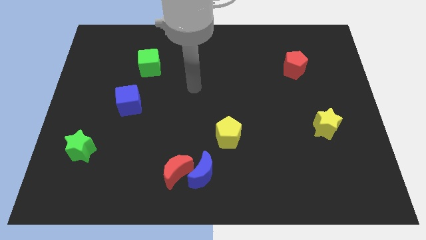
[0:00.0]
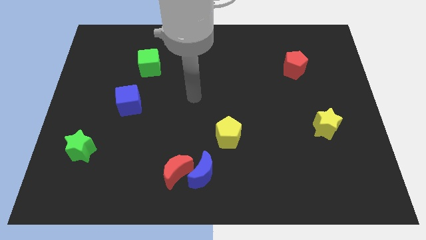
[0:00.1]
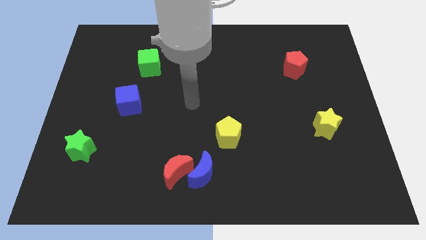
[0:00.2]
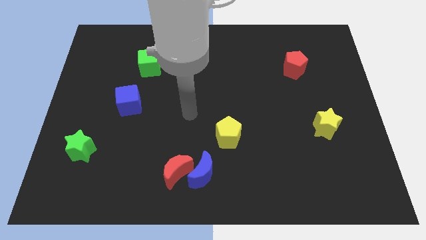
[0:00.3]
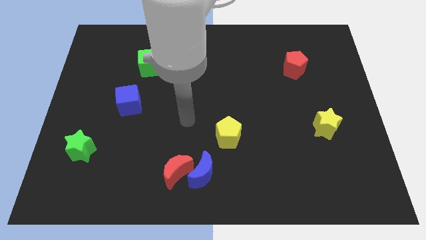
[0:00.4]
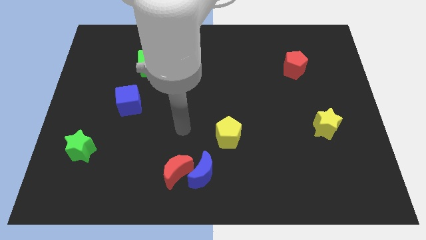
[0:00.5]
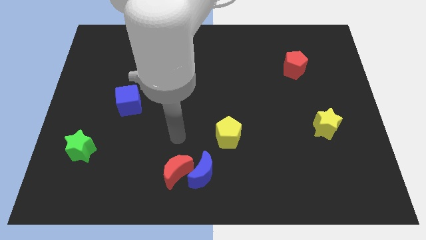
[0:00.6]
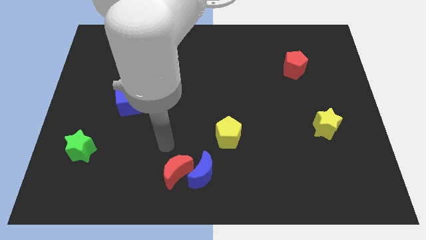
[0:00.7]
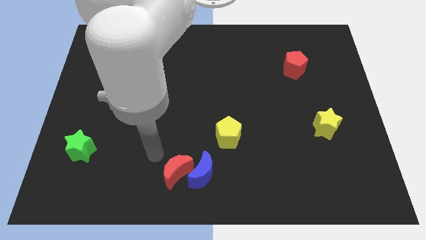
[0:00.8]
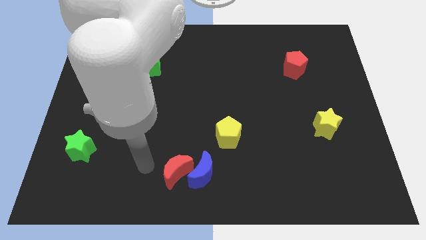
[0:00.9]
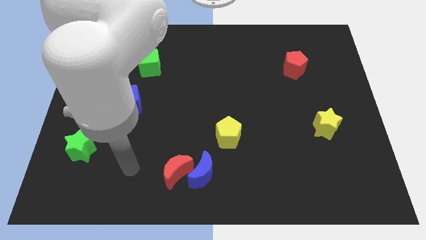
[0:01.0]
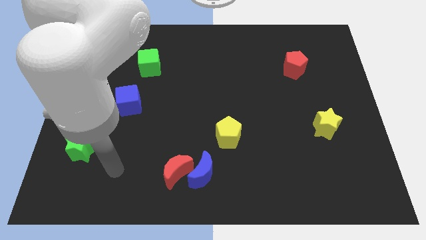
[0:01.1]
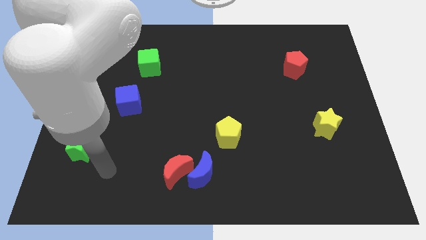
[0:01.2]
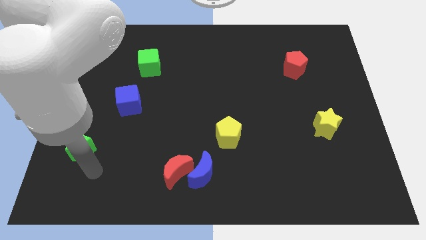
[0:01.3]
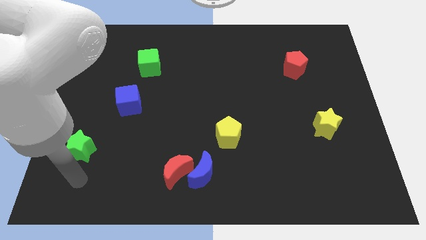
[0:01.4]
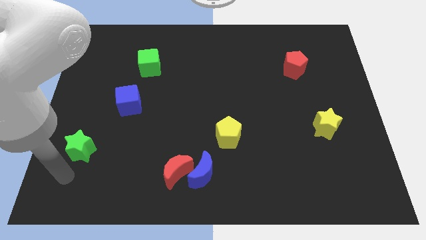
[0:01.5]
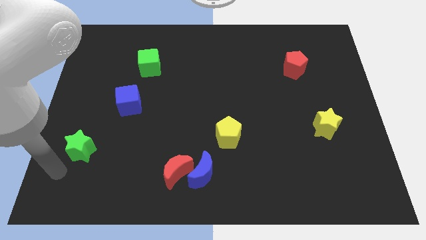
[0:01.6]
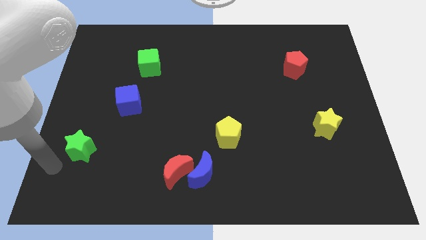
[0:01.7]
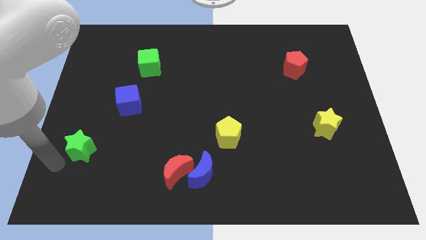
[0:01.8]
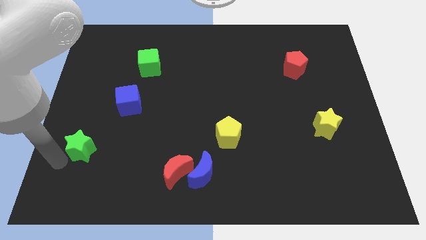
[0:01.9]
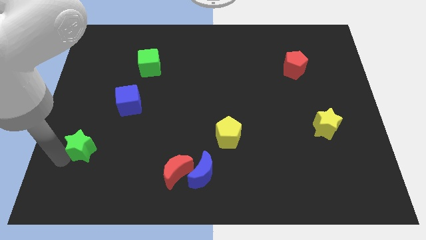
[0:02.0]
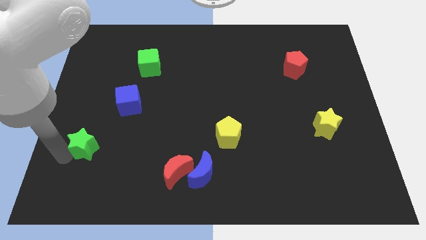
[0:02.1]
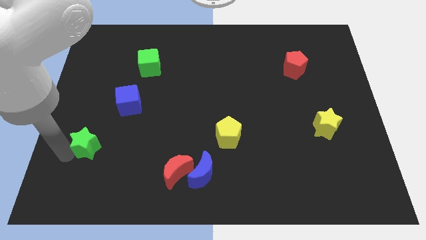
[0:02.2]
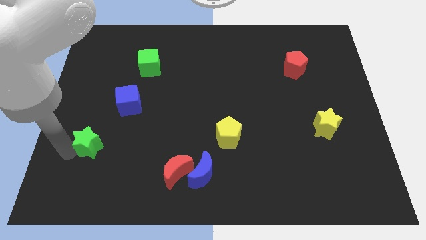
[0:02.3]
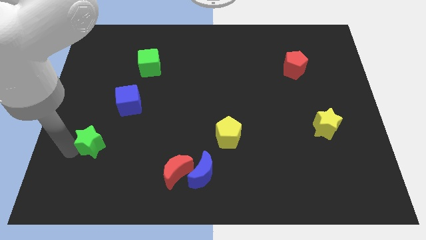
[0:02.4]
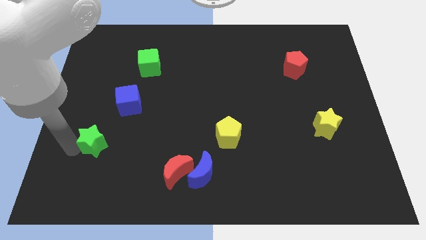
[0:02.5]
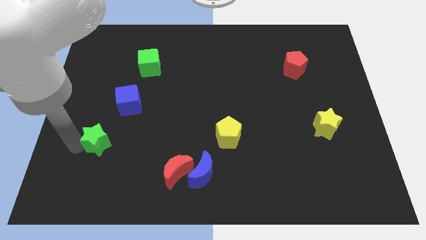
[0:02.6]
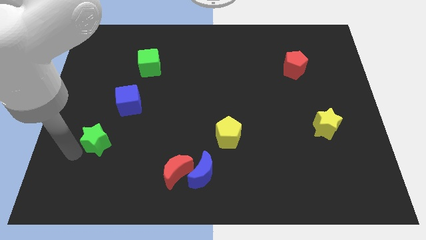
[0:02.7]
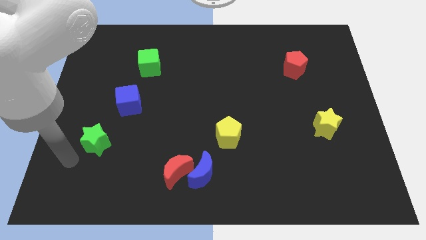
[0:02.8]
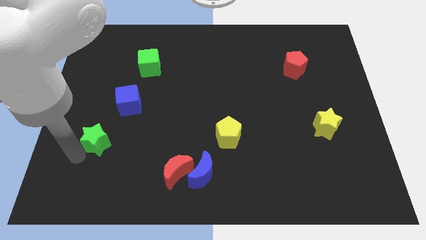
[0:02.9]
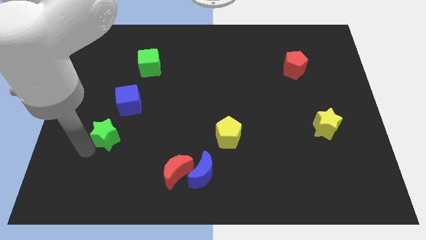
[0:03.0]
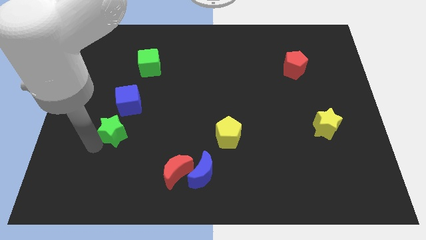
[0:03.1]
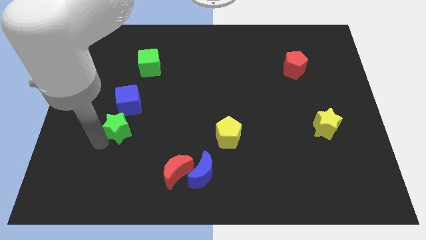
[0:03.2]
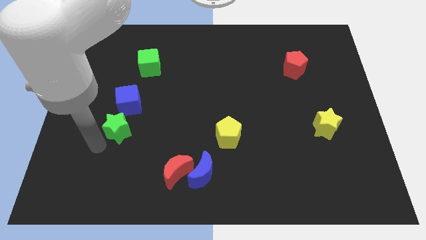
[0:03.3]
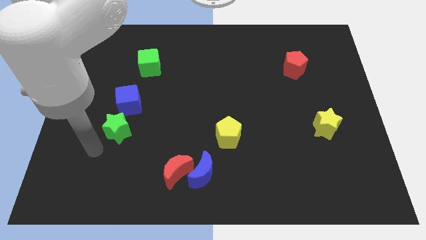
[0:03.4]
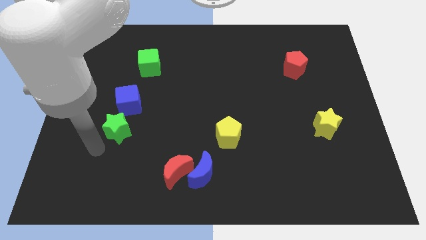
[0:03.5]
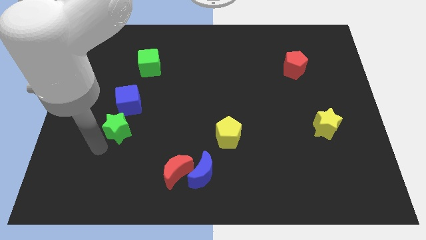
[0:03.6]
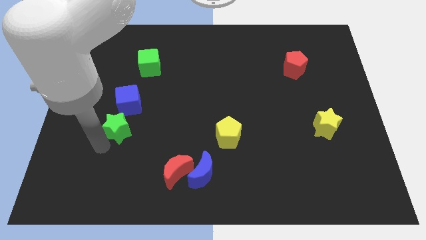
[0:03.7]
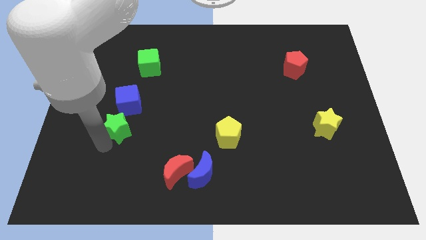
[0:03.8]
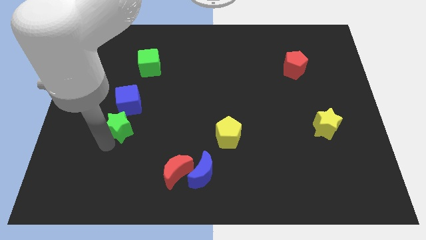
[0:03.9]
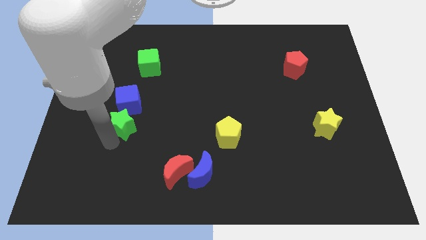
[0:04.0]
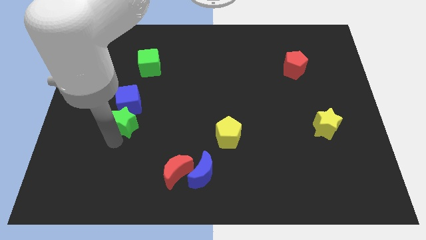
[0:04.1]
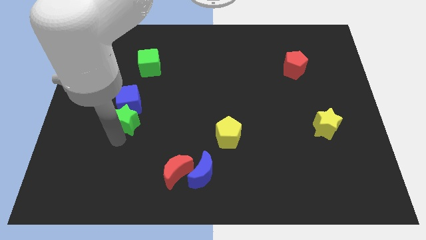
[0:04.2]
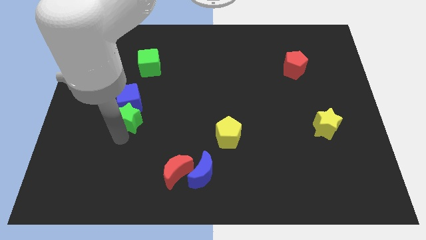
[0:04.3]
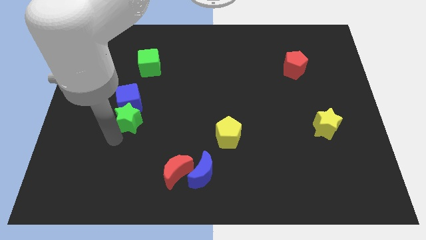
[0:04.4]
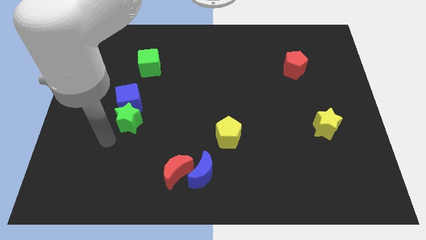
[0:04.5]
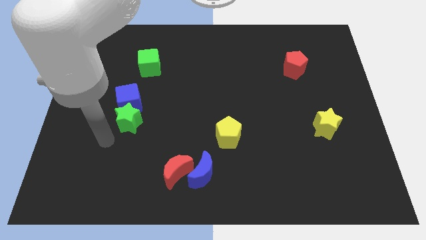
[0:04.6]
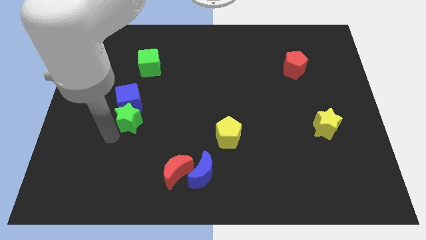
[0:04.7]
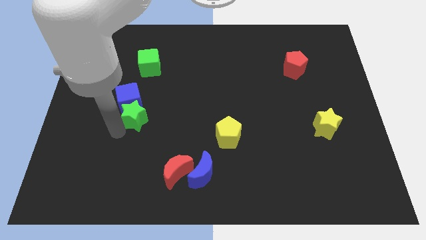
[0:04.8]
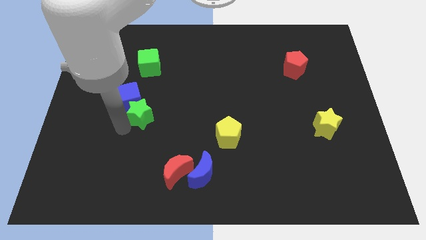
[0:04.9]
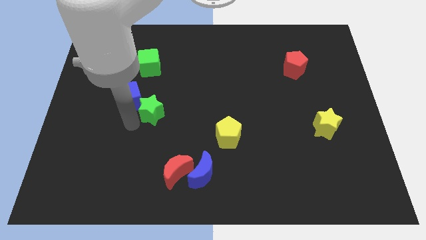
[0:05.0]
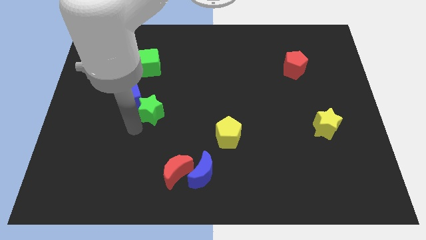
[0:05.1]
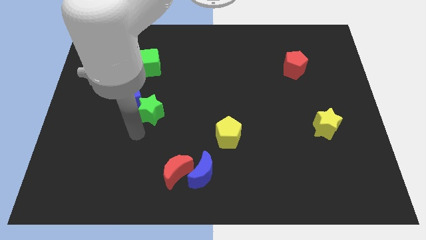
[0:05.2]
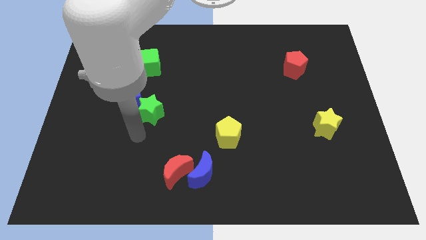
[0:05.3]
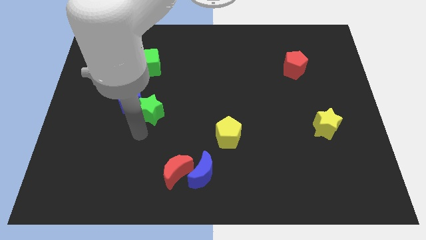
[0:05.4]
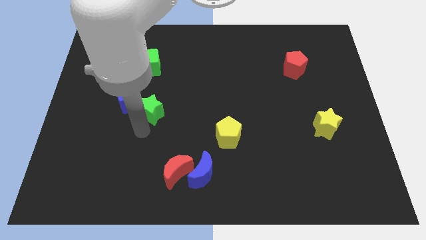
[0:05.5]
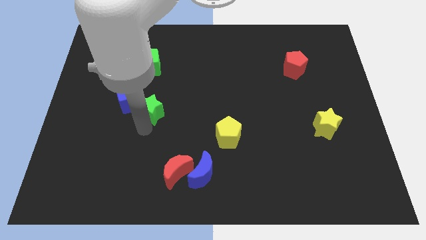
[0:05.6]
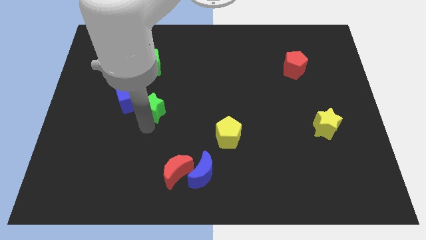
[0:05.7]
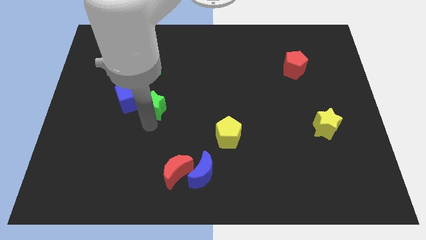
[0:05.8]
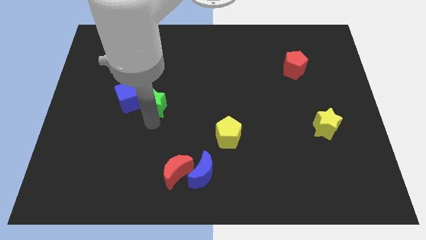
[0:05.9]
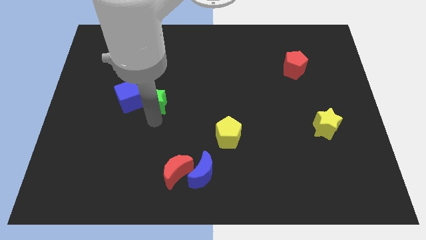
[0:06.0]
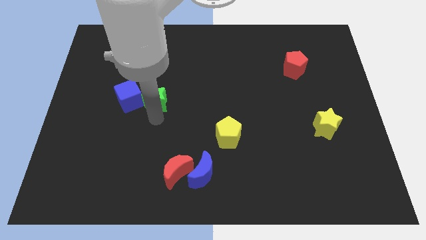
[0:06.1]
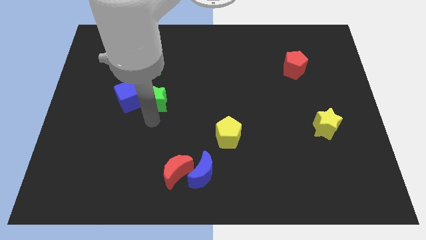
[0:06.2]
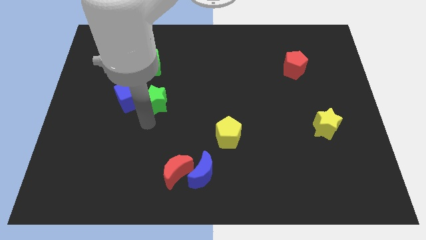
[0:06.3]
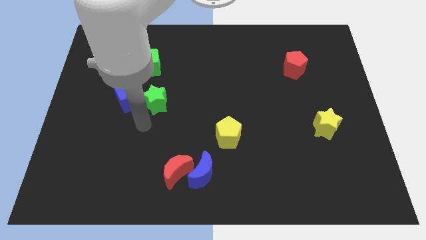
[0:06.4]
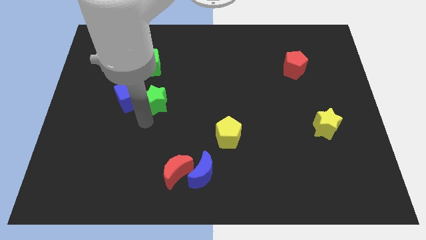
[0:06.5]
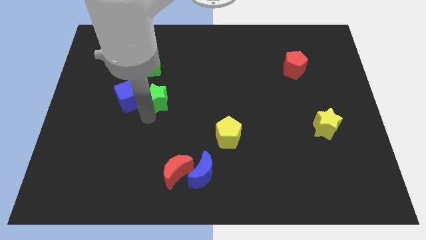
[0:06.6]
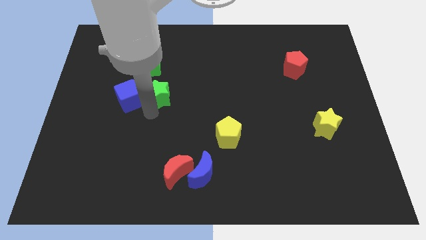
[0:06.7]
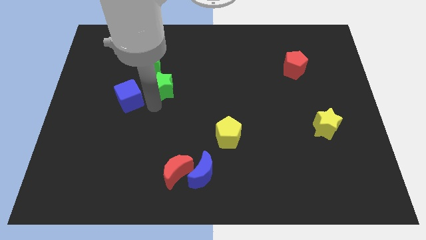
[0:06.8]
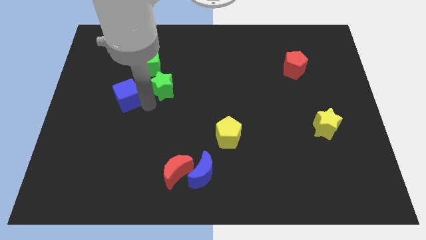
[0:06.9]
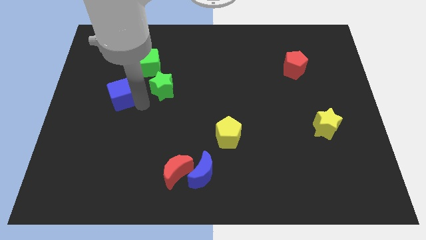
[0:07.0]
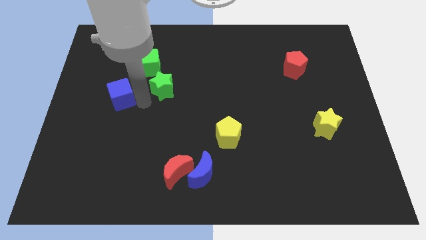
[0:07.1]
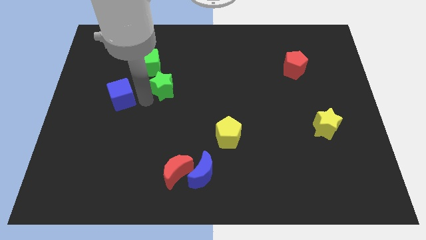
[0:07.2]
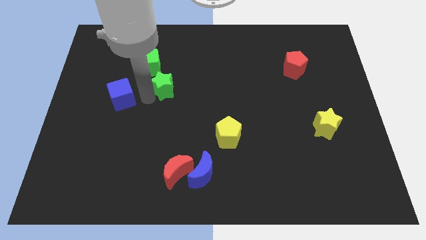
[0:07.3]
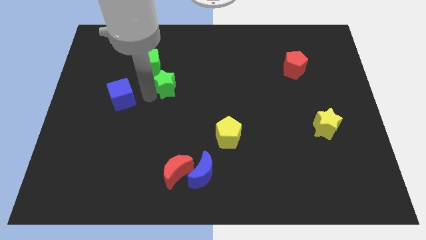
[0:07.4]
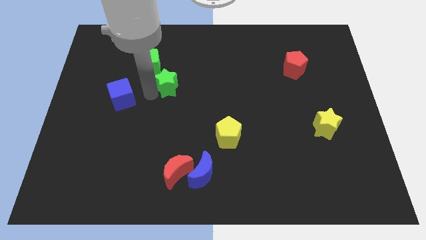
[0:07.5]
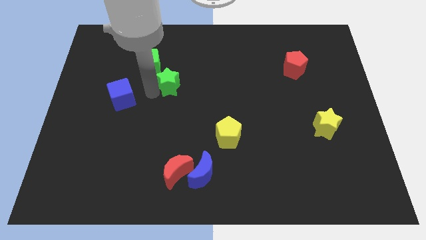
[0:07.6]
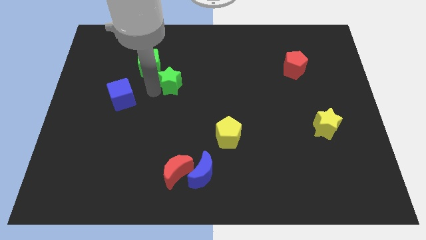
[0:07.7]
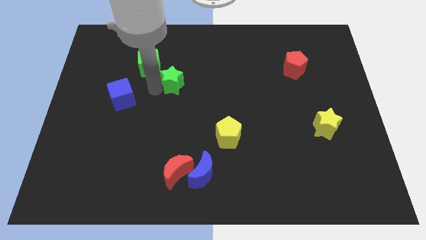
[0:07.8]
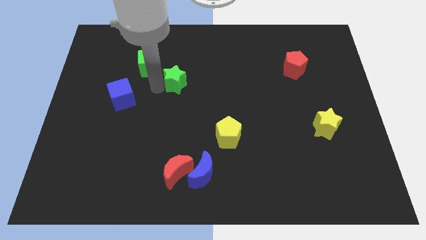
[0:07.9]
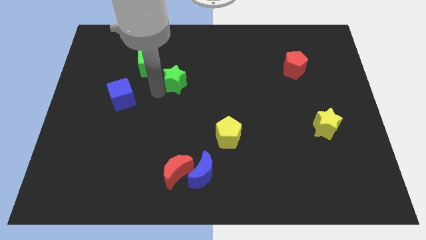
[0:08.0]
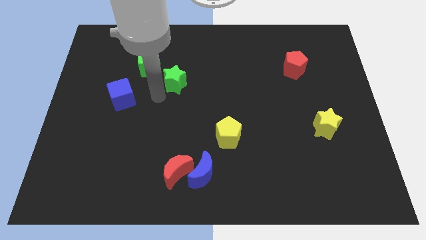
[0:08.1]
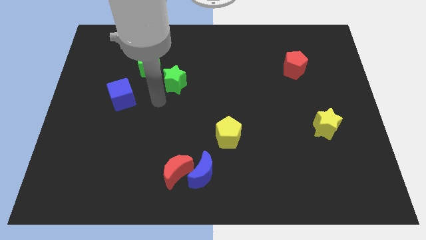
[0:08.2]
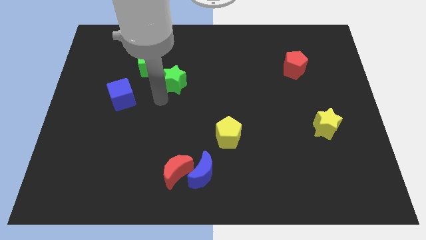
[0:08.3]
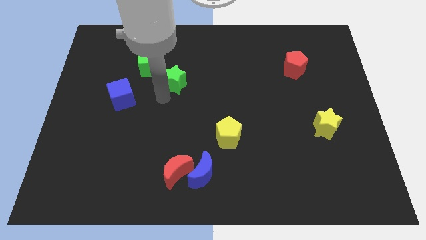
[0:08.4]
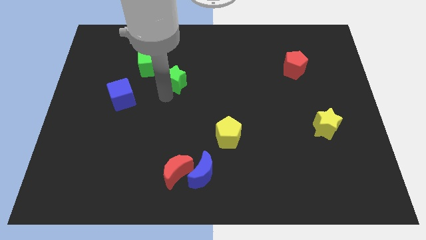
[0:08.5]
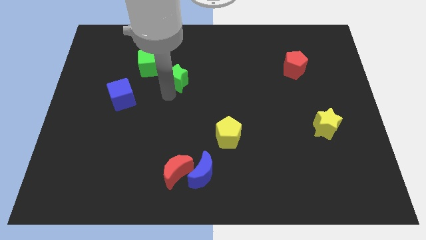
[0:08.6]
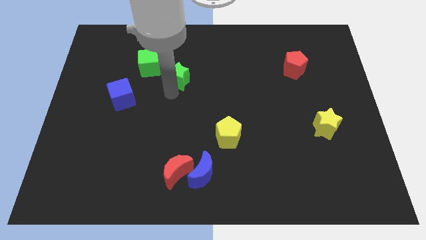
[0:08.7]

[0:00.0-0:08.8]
slide the green star just right of the green cube

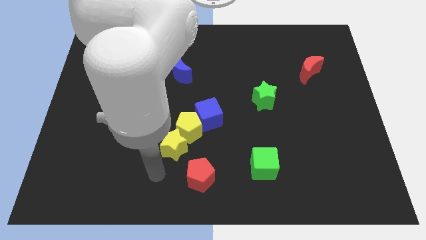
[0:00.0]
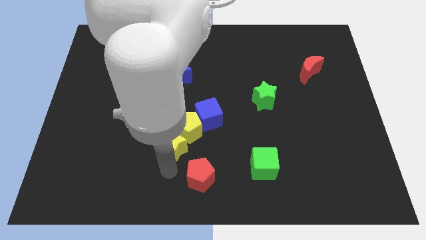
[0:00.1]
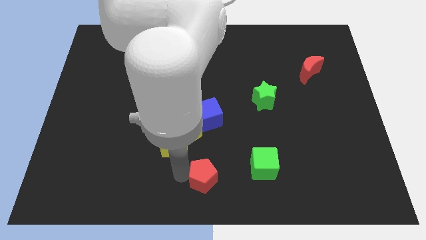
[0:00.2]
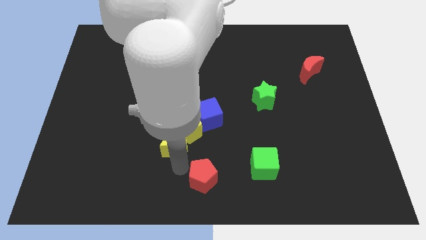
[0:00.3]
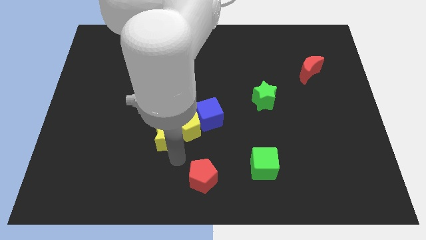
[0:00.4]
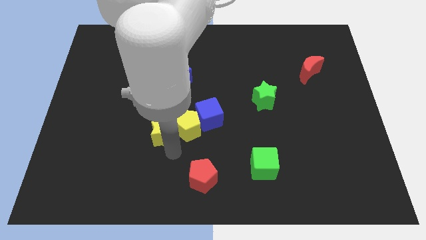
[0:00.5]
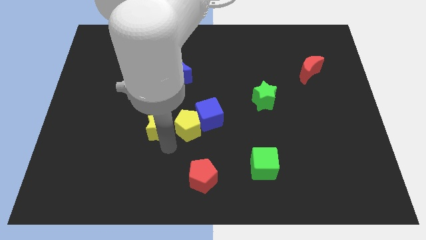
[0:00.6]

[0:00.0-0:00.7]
put the yellow star to the left side of the blue cube
